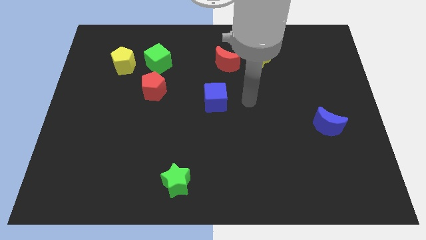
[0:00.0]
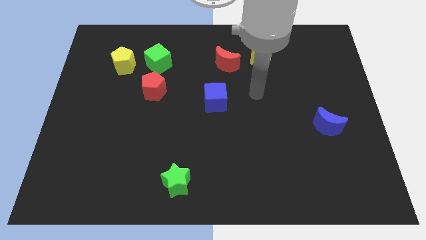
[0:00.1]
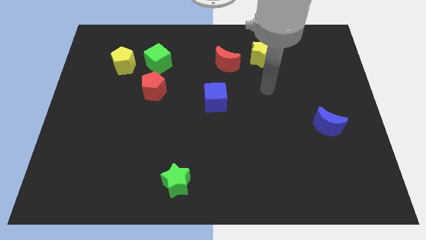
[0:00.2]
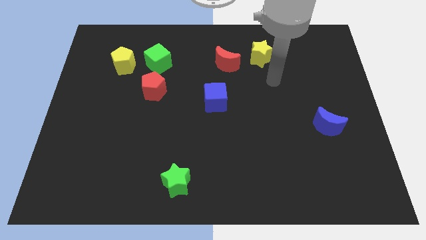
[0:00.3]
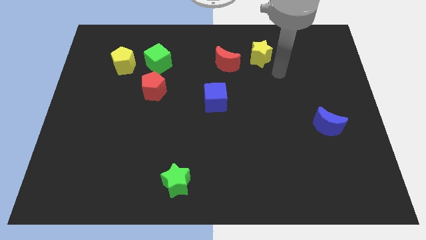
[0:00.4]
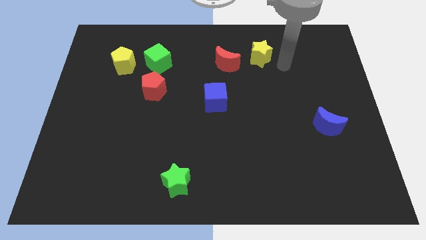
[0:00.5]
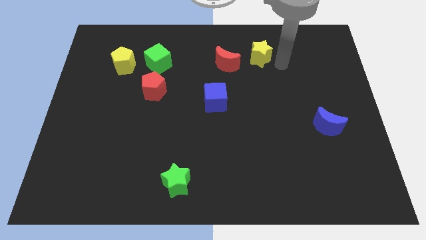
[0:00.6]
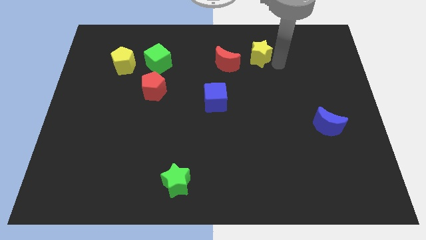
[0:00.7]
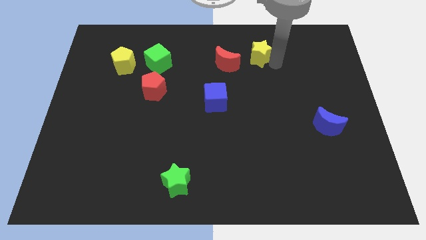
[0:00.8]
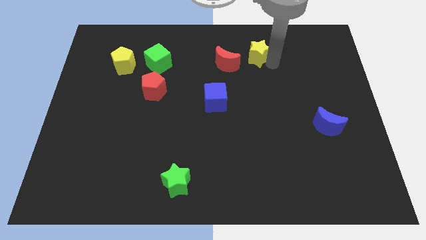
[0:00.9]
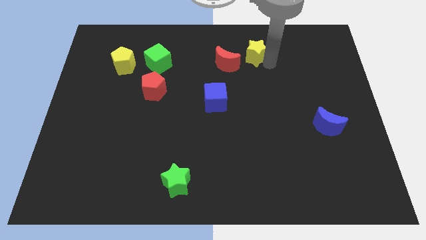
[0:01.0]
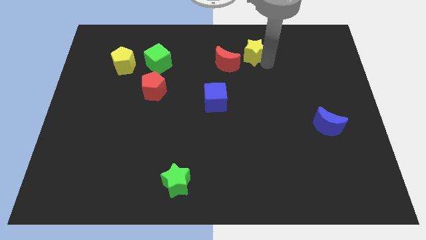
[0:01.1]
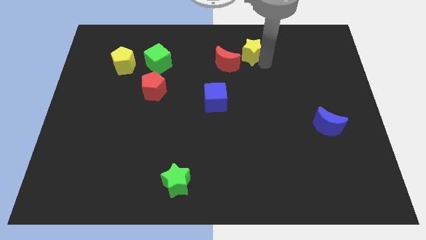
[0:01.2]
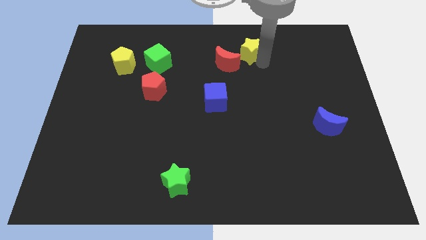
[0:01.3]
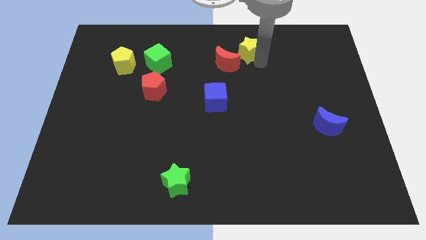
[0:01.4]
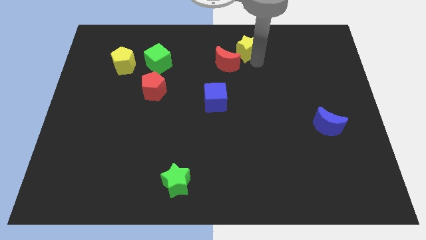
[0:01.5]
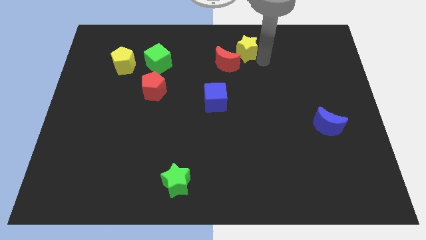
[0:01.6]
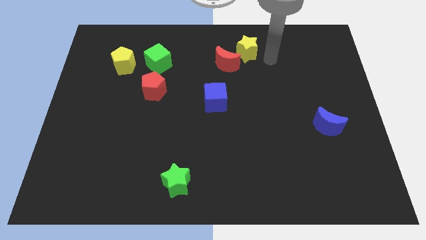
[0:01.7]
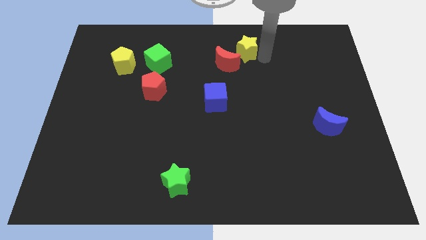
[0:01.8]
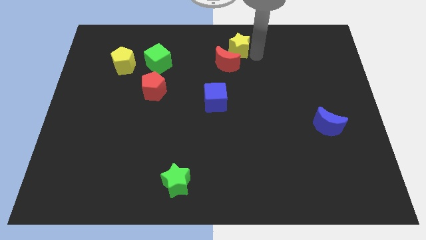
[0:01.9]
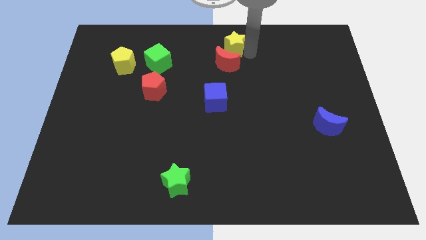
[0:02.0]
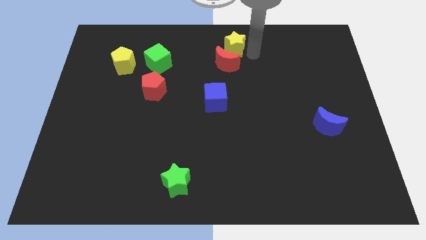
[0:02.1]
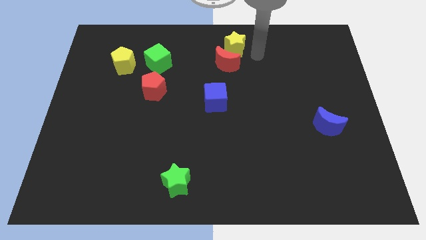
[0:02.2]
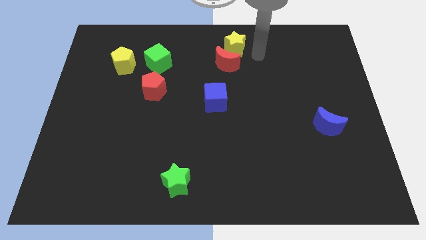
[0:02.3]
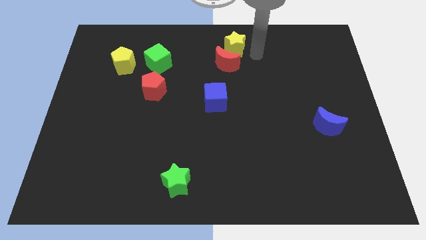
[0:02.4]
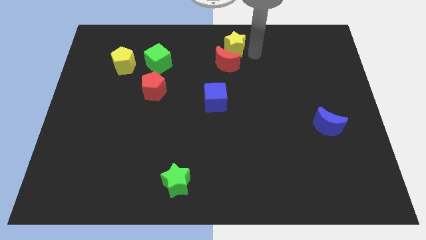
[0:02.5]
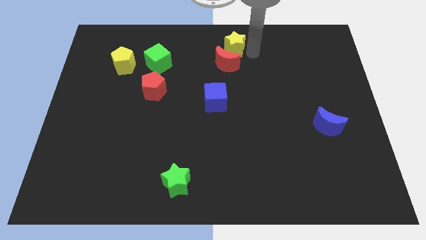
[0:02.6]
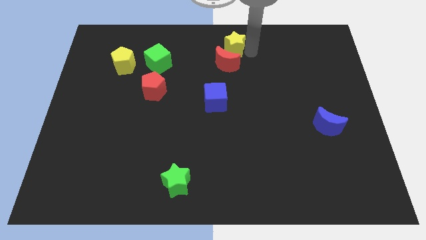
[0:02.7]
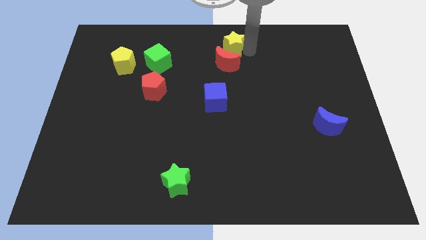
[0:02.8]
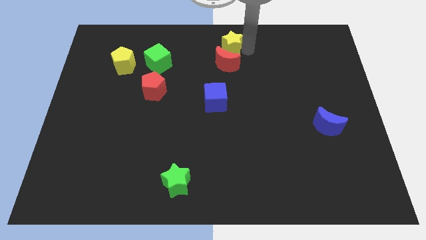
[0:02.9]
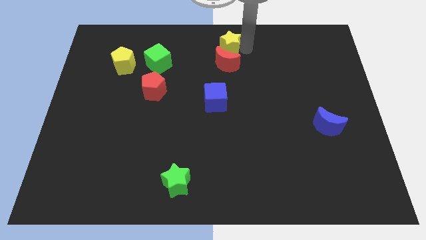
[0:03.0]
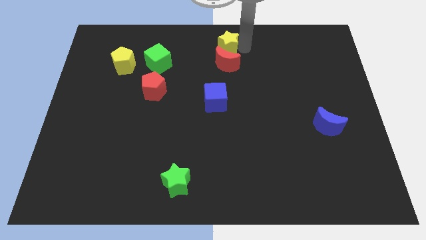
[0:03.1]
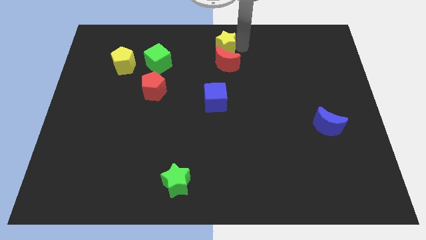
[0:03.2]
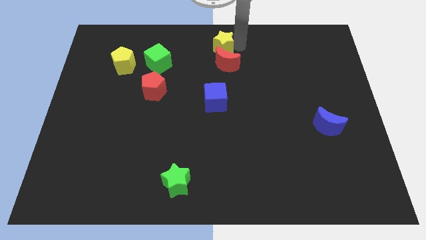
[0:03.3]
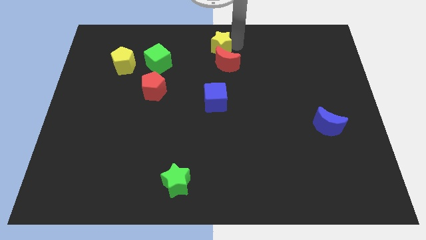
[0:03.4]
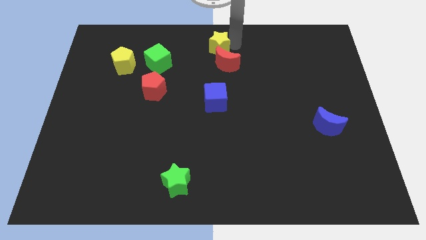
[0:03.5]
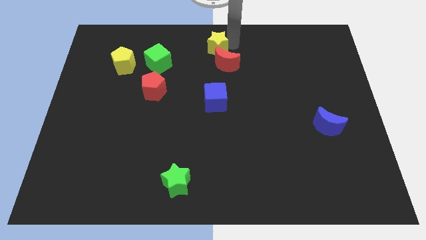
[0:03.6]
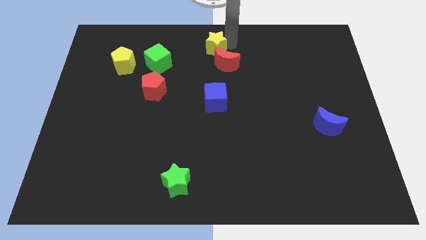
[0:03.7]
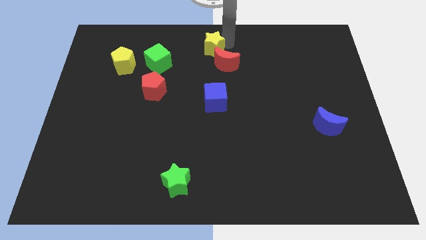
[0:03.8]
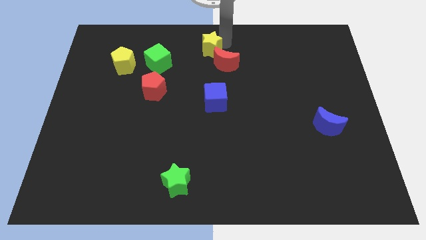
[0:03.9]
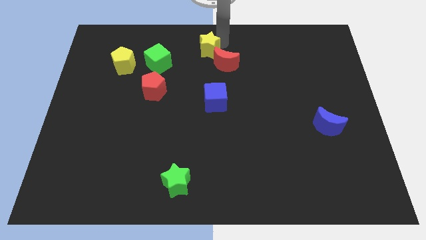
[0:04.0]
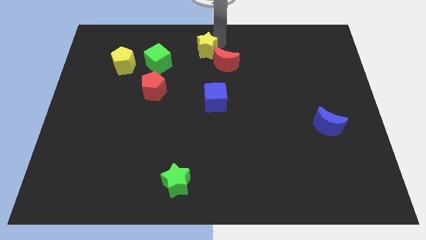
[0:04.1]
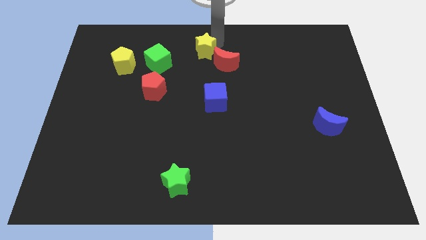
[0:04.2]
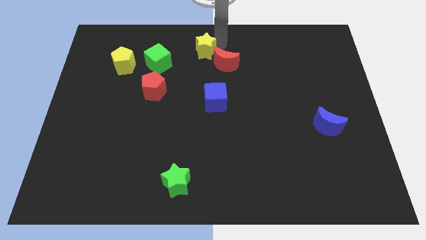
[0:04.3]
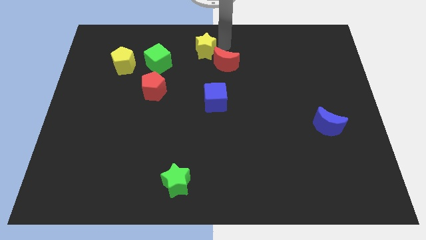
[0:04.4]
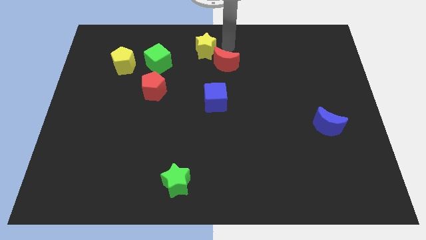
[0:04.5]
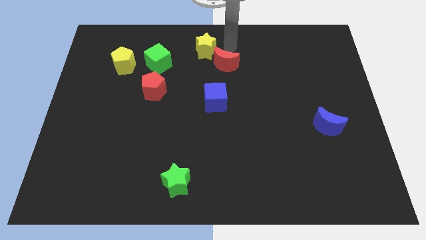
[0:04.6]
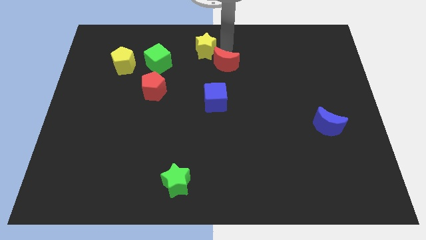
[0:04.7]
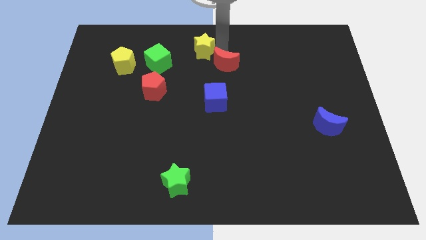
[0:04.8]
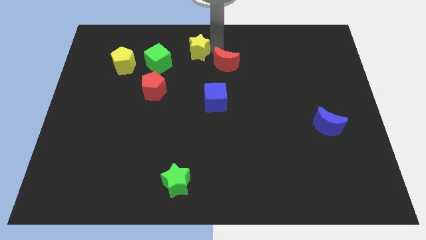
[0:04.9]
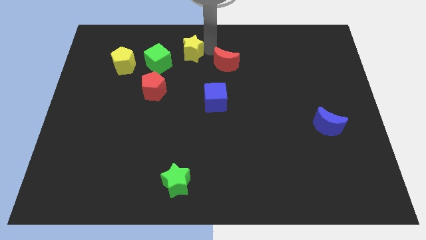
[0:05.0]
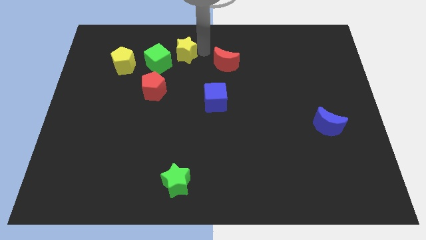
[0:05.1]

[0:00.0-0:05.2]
slide the yellow star to the left

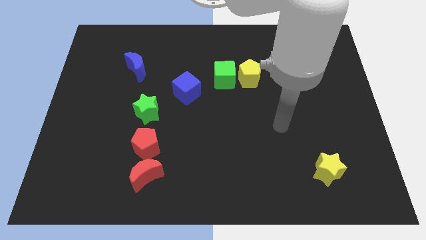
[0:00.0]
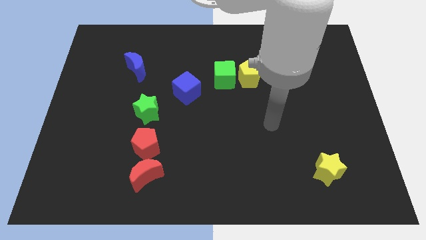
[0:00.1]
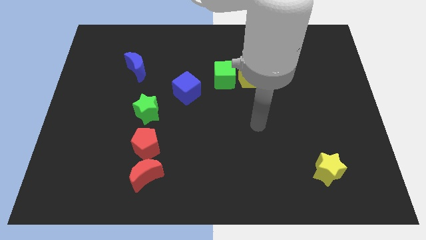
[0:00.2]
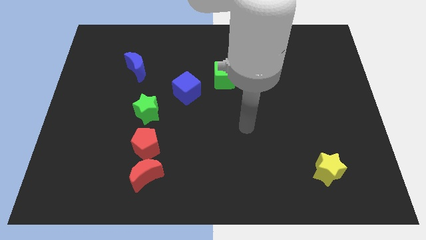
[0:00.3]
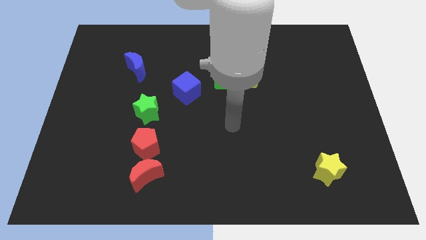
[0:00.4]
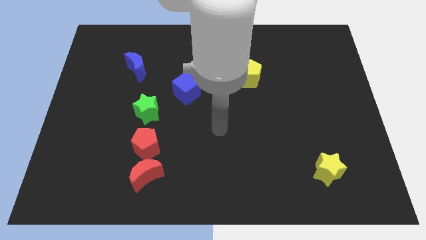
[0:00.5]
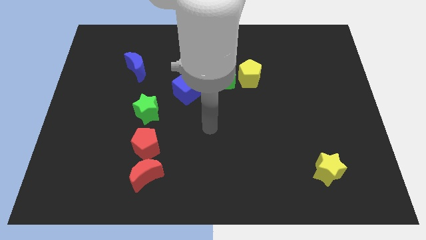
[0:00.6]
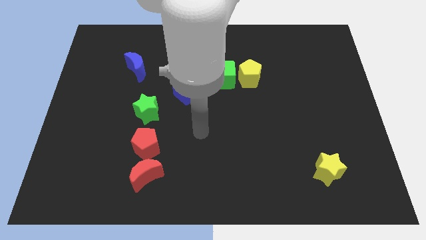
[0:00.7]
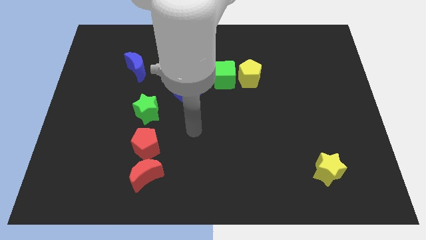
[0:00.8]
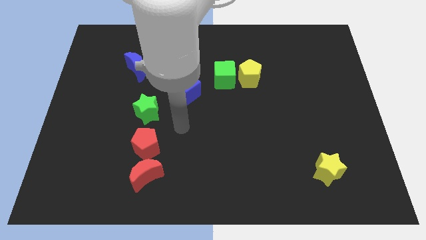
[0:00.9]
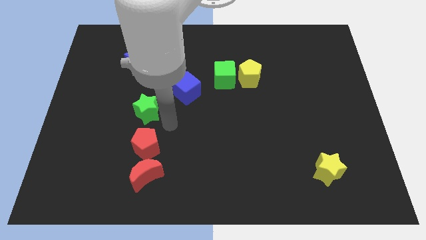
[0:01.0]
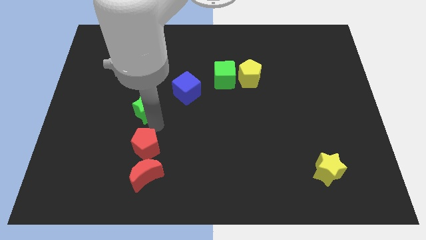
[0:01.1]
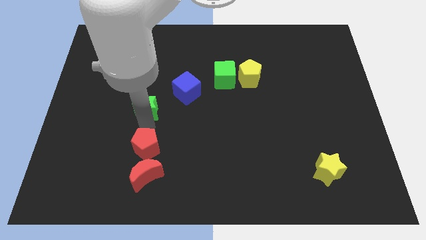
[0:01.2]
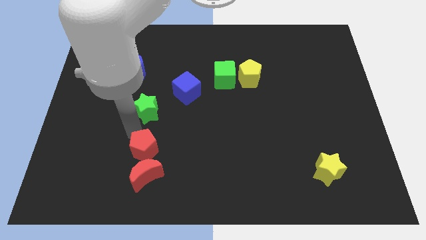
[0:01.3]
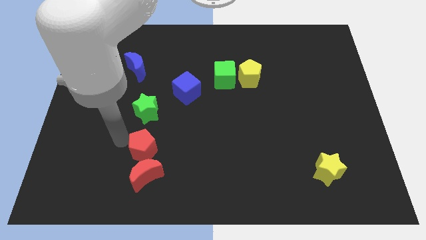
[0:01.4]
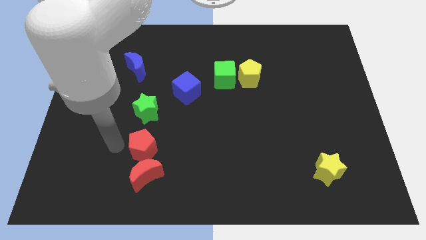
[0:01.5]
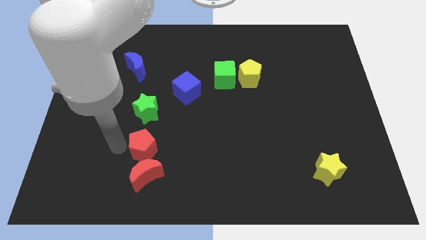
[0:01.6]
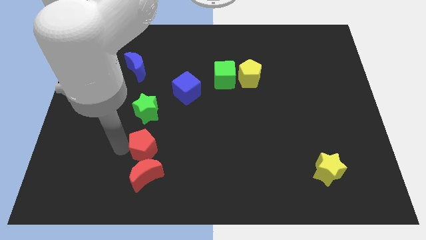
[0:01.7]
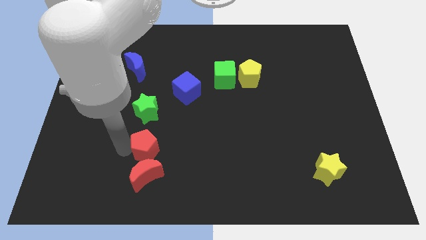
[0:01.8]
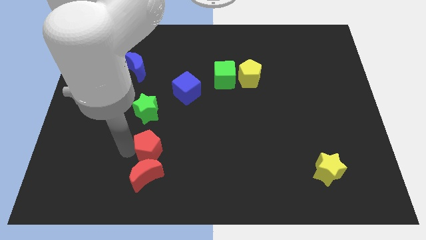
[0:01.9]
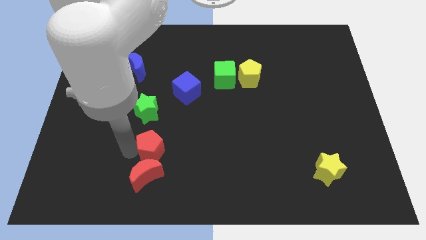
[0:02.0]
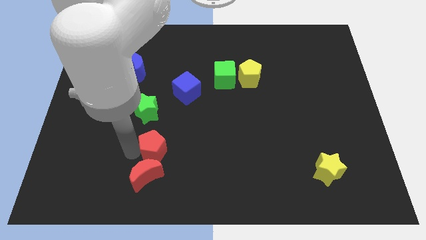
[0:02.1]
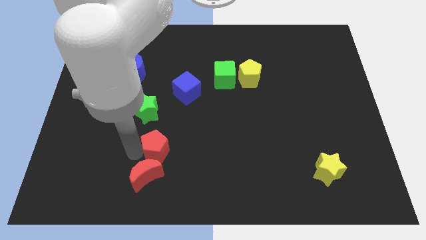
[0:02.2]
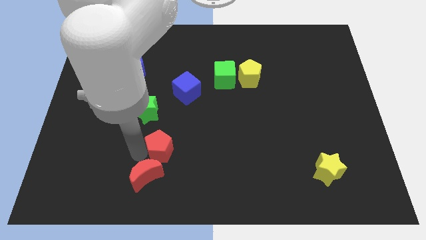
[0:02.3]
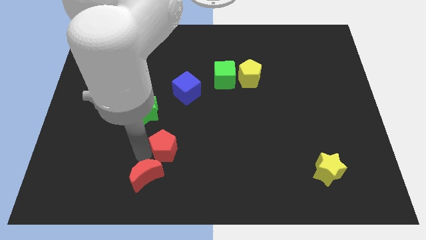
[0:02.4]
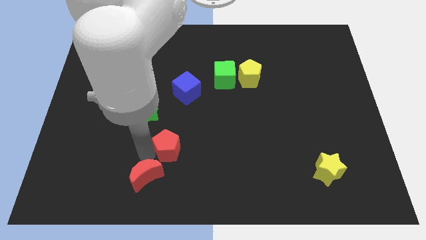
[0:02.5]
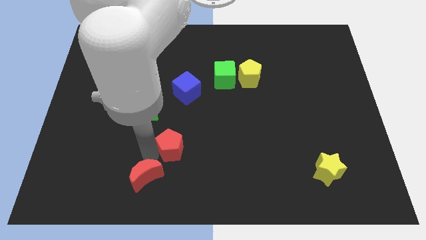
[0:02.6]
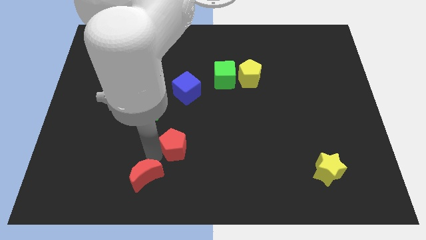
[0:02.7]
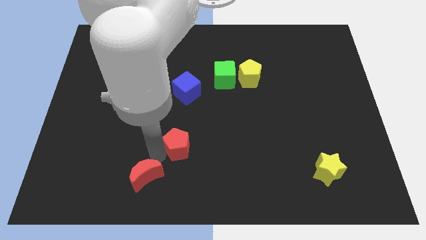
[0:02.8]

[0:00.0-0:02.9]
push the red pentagon a little right

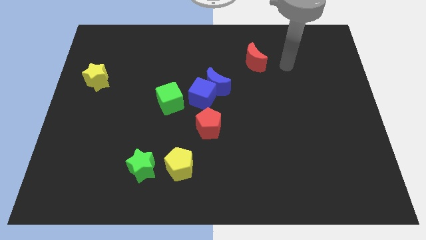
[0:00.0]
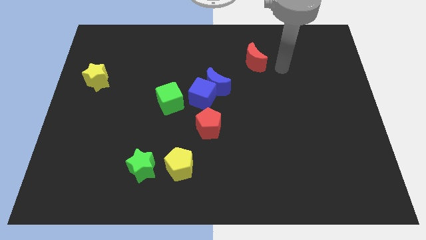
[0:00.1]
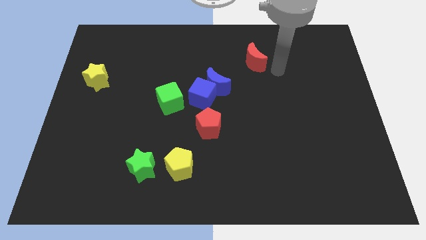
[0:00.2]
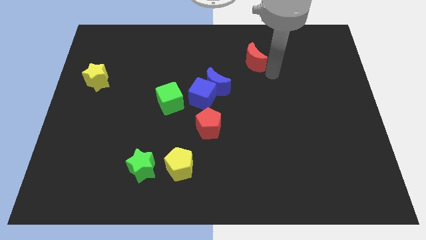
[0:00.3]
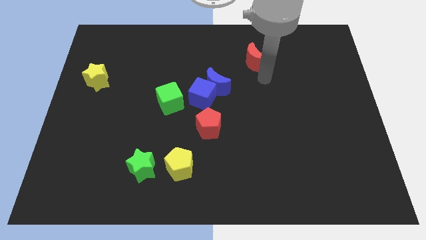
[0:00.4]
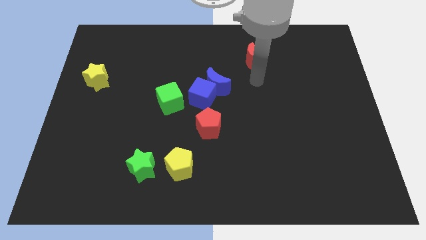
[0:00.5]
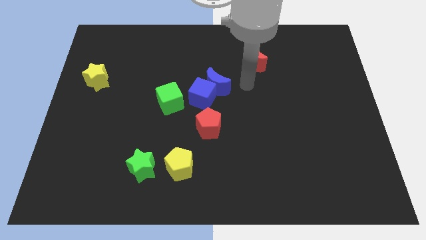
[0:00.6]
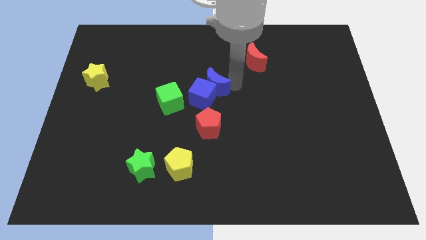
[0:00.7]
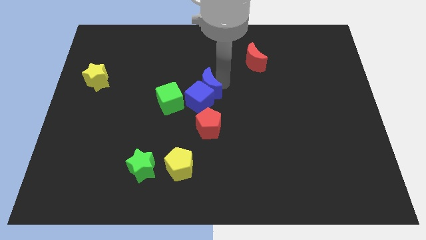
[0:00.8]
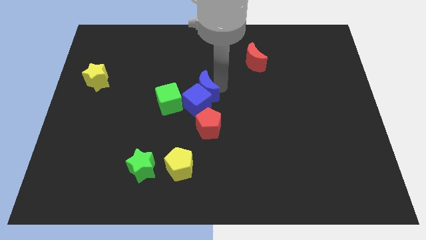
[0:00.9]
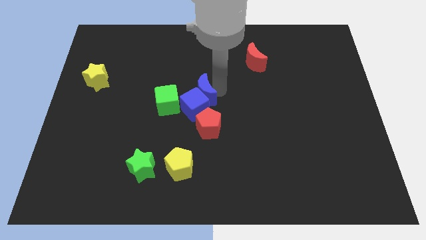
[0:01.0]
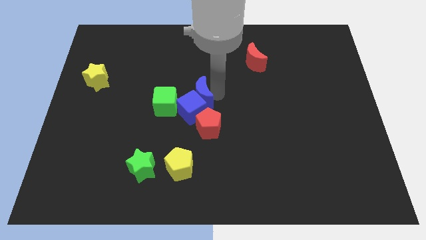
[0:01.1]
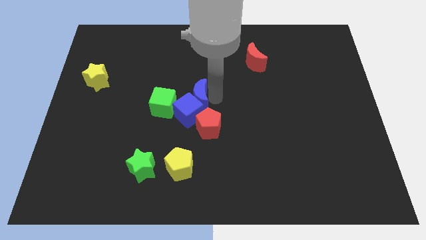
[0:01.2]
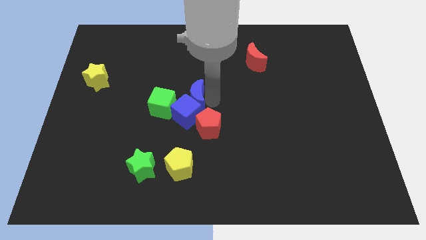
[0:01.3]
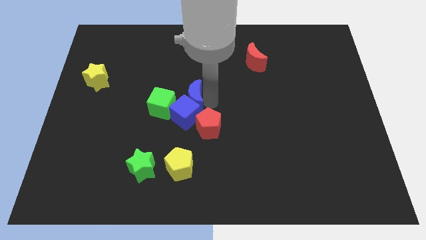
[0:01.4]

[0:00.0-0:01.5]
slightly move the blue cube down and then left
